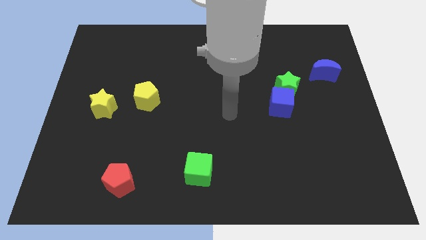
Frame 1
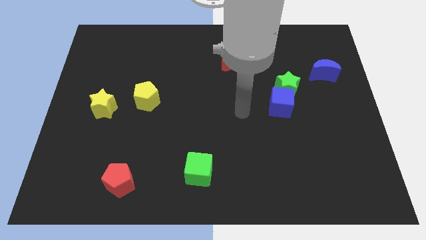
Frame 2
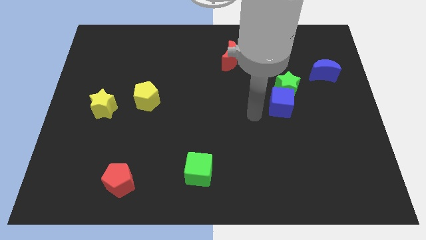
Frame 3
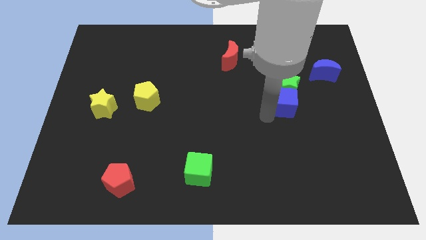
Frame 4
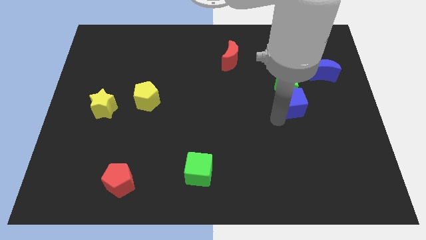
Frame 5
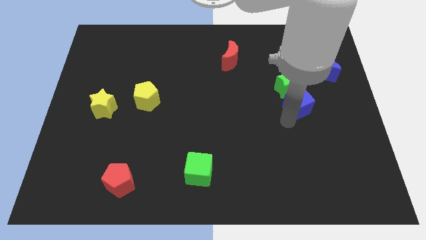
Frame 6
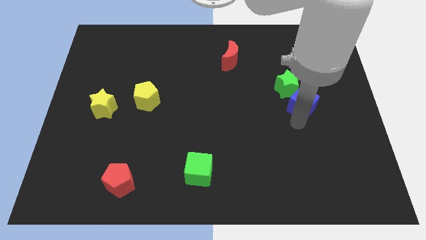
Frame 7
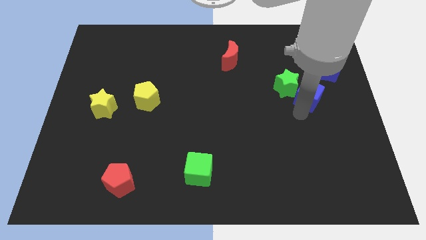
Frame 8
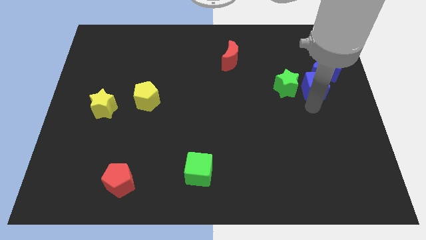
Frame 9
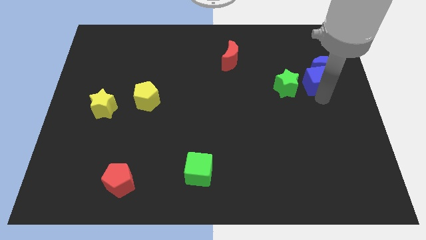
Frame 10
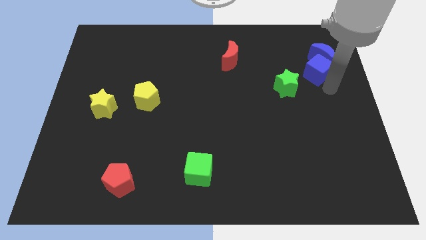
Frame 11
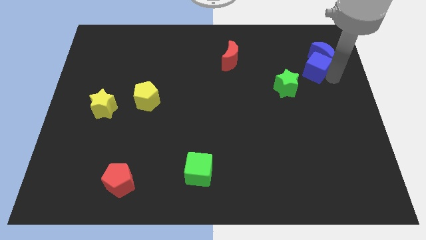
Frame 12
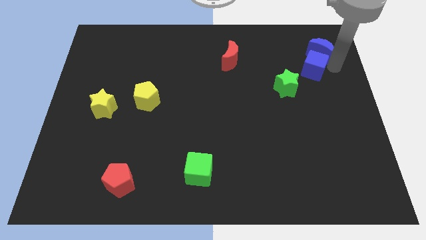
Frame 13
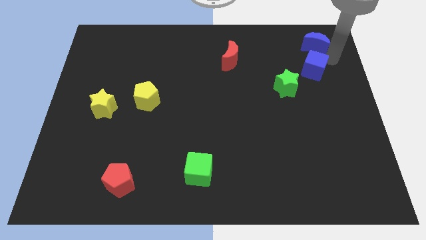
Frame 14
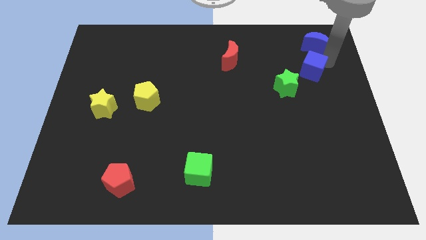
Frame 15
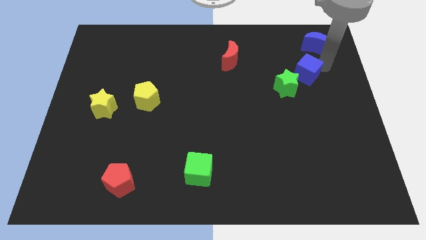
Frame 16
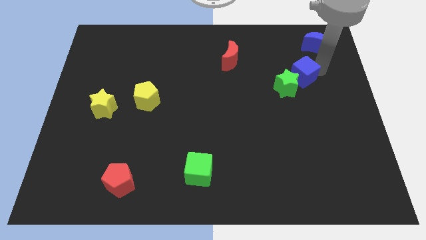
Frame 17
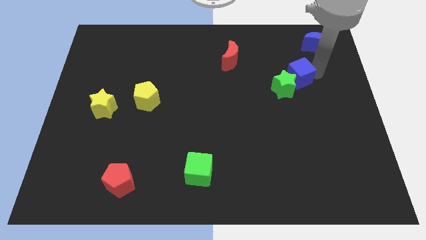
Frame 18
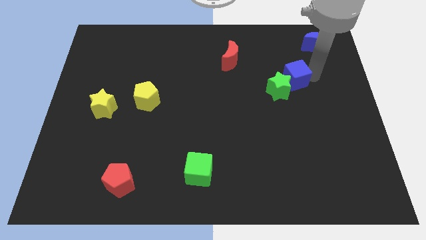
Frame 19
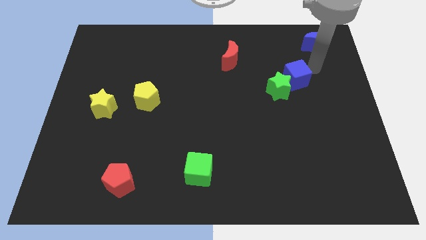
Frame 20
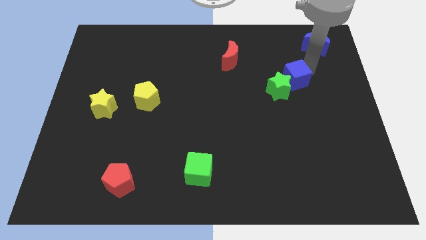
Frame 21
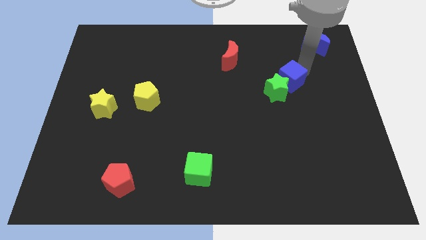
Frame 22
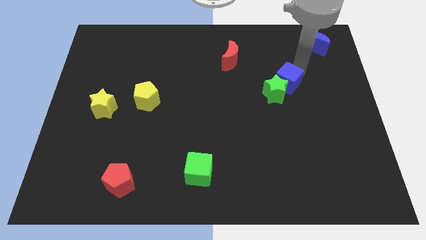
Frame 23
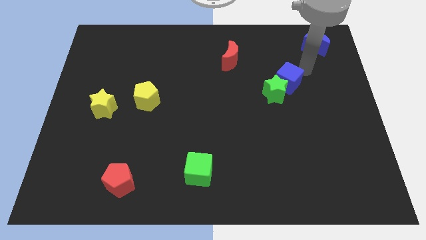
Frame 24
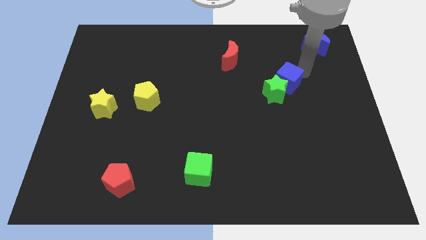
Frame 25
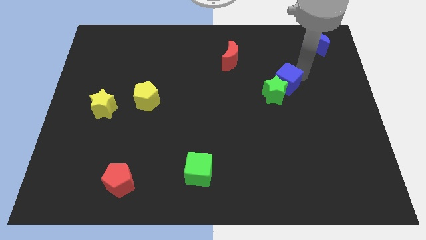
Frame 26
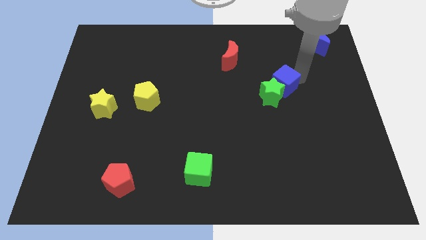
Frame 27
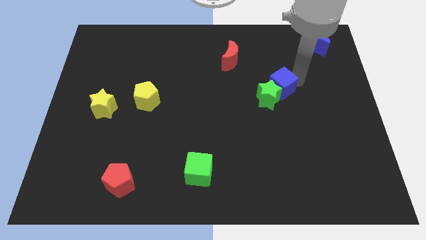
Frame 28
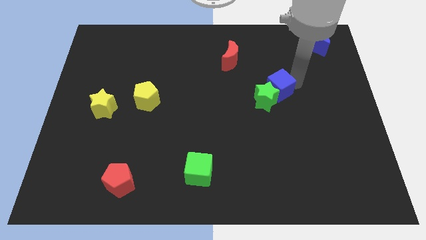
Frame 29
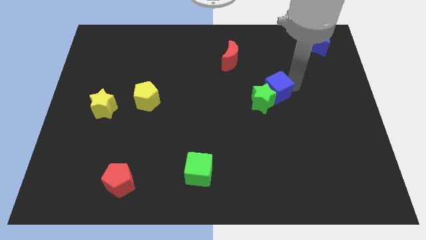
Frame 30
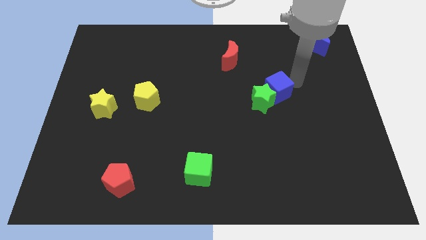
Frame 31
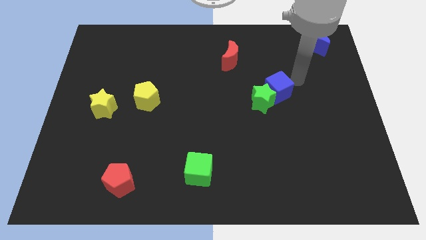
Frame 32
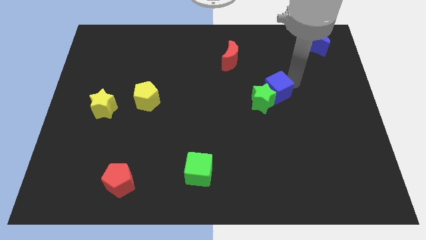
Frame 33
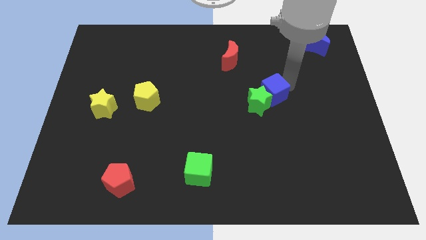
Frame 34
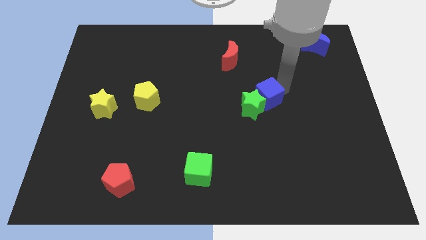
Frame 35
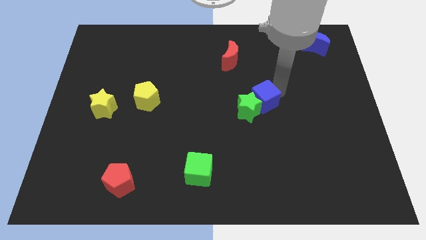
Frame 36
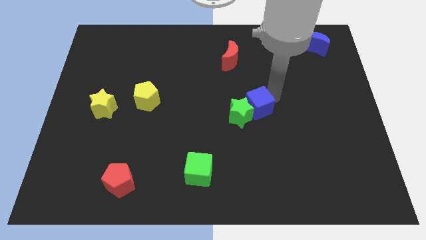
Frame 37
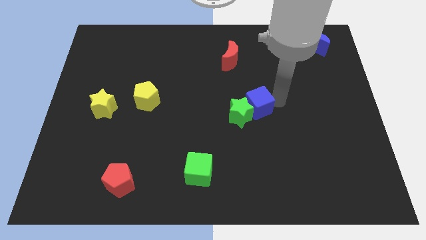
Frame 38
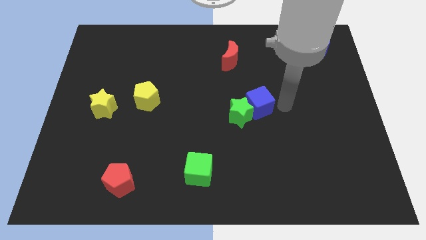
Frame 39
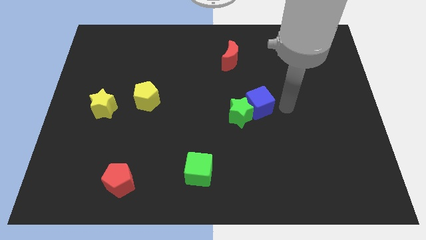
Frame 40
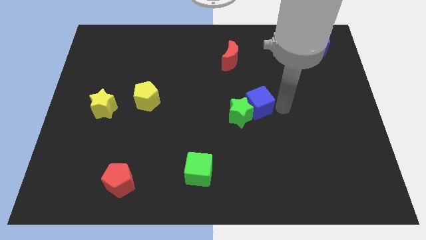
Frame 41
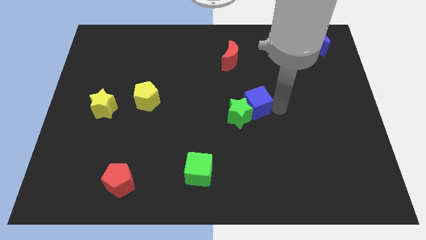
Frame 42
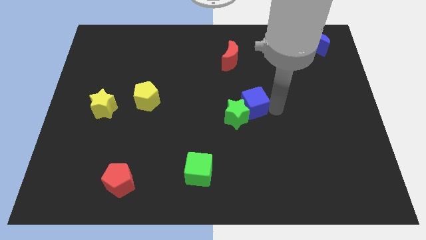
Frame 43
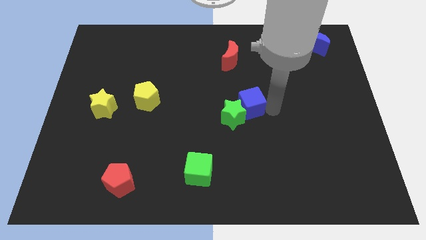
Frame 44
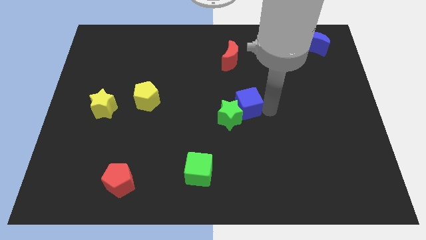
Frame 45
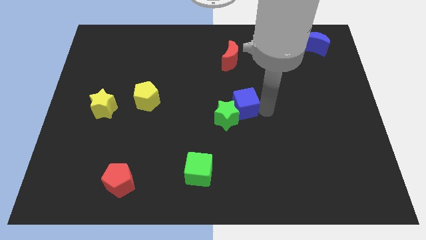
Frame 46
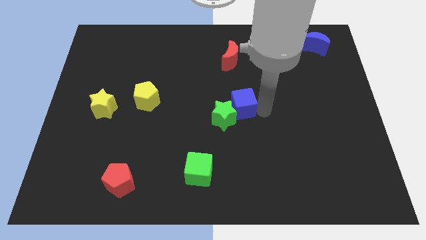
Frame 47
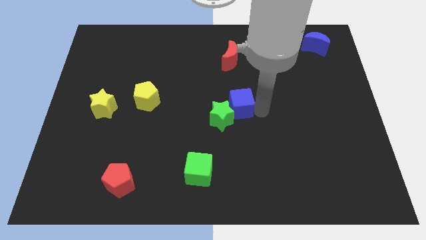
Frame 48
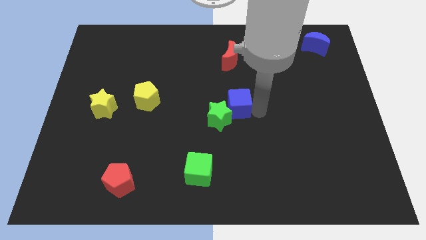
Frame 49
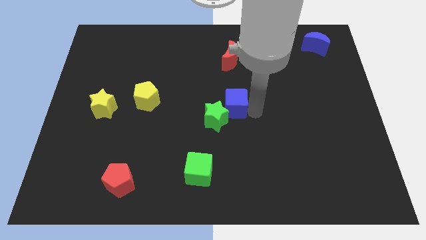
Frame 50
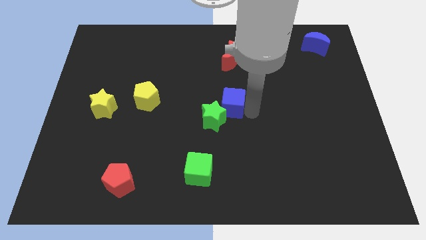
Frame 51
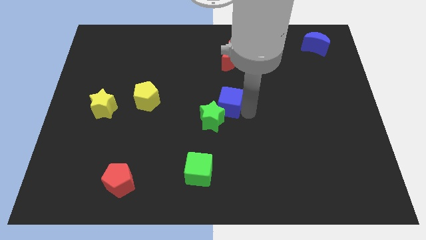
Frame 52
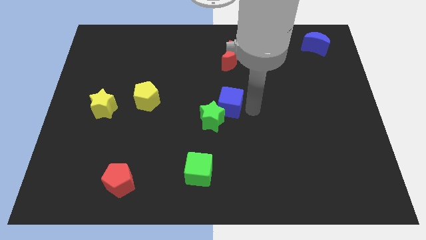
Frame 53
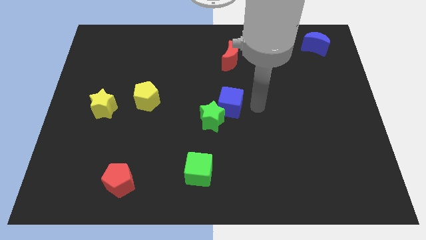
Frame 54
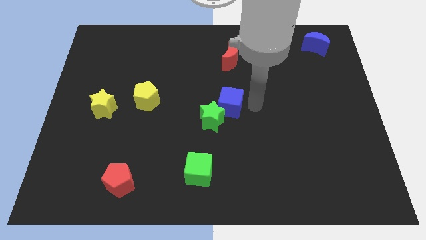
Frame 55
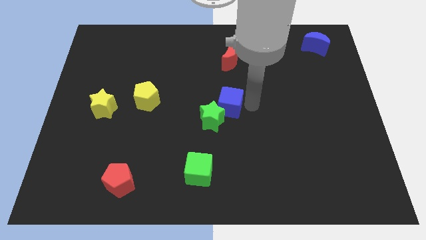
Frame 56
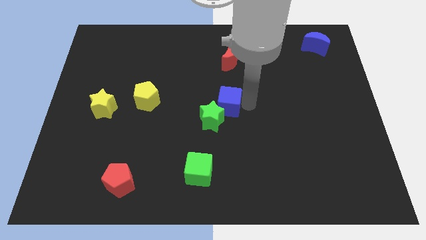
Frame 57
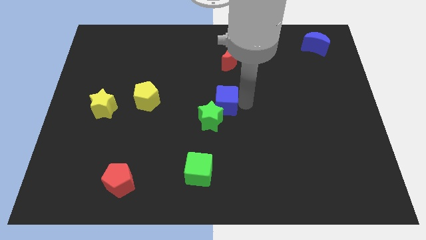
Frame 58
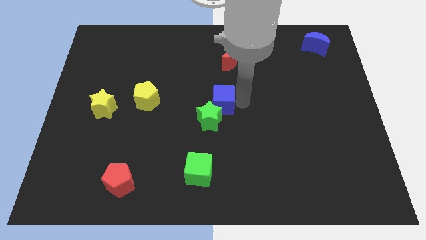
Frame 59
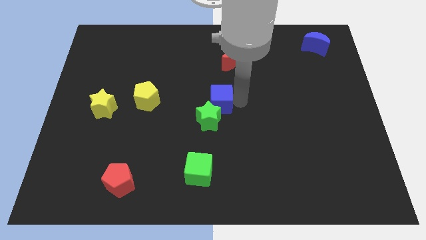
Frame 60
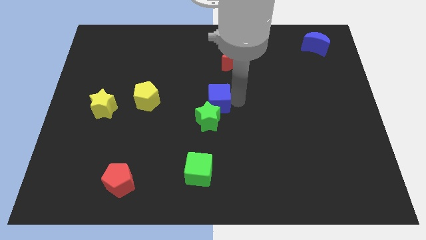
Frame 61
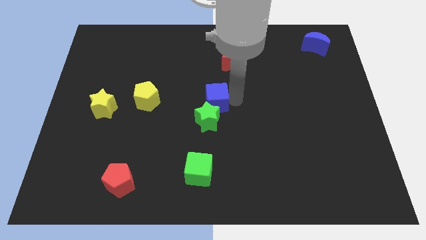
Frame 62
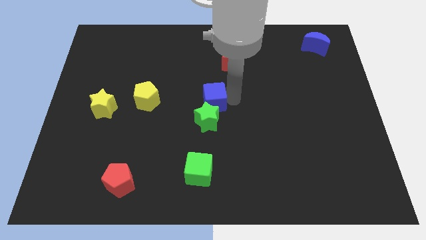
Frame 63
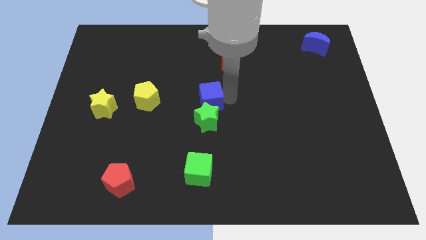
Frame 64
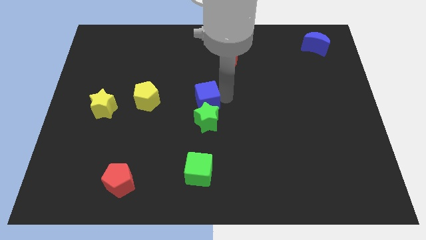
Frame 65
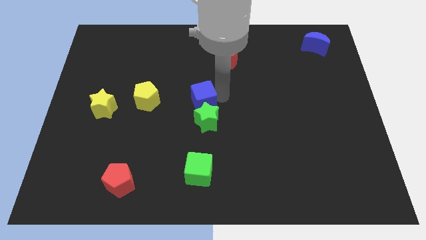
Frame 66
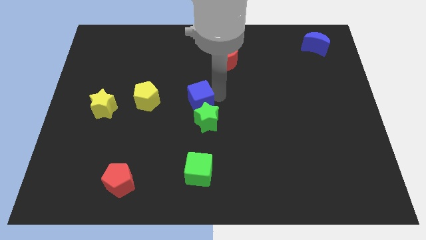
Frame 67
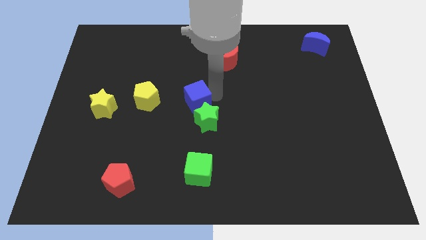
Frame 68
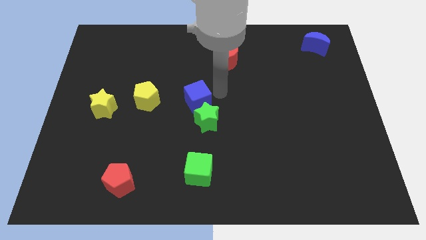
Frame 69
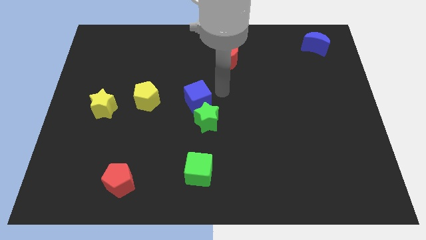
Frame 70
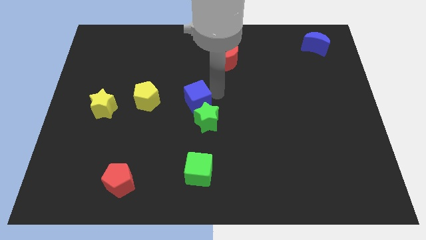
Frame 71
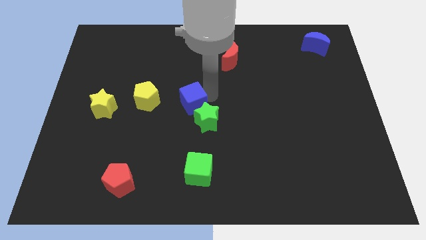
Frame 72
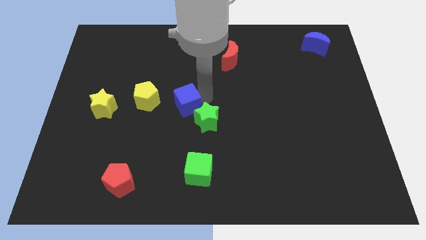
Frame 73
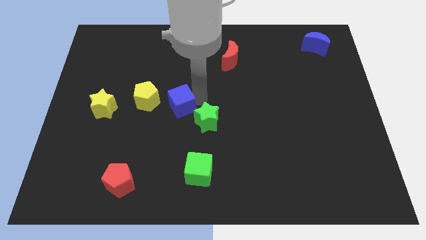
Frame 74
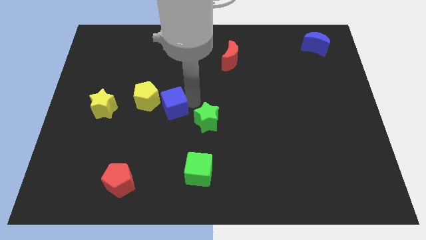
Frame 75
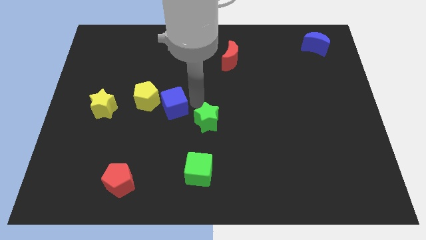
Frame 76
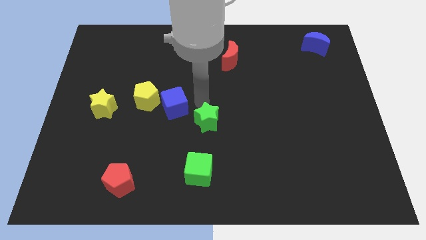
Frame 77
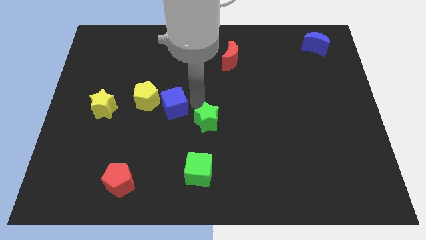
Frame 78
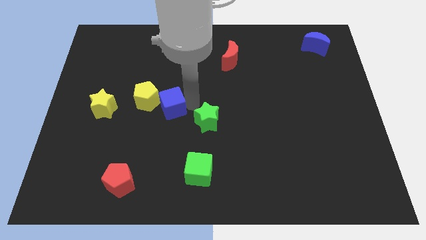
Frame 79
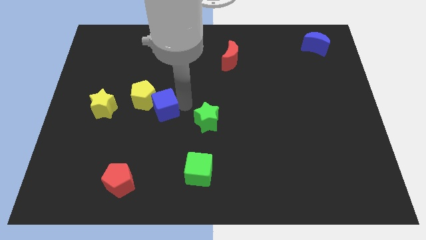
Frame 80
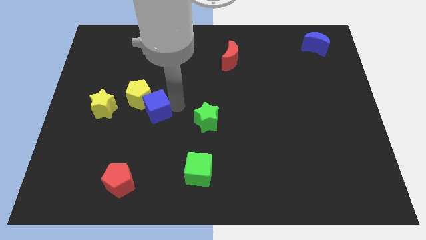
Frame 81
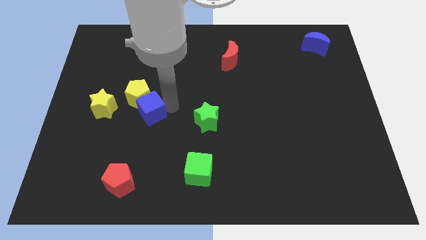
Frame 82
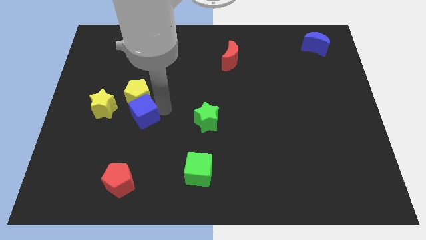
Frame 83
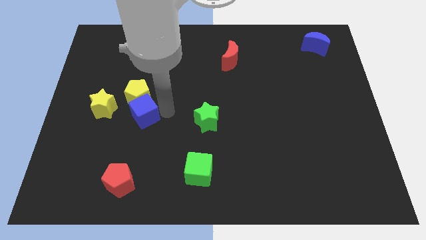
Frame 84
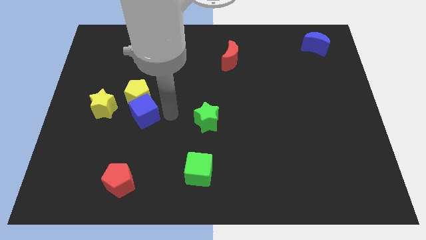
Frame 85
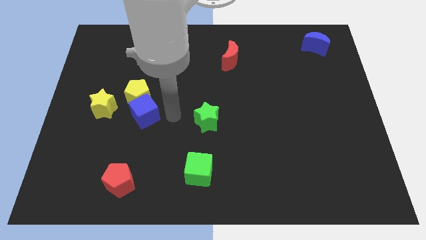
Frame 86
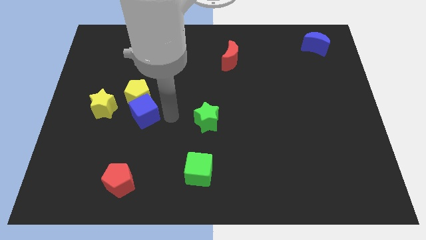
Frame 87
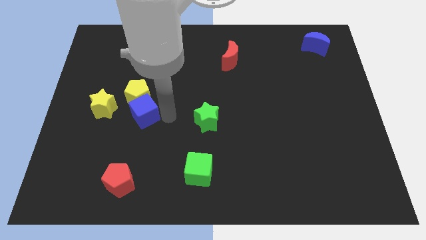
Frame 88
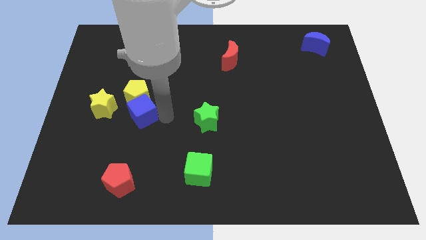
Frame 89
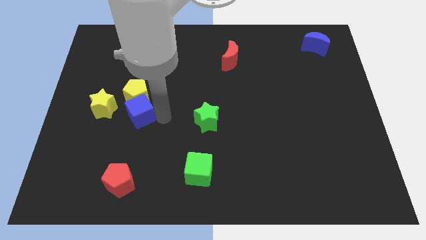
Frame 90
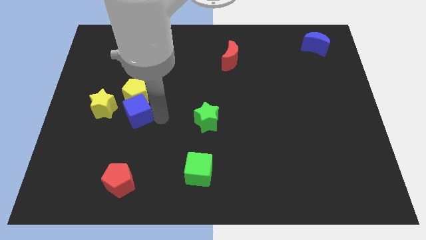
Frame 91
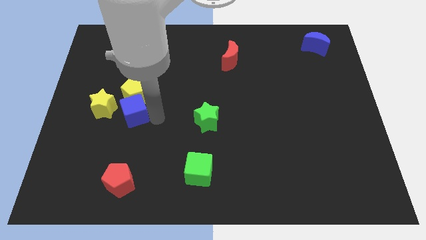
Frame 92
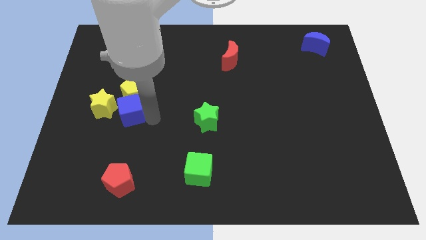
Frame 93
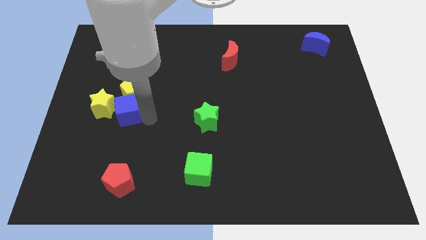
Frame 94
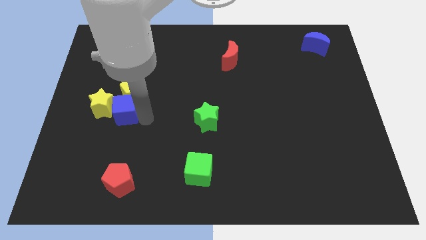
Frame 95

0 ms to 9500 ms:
slide the blue cube next to the yellow star
